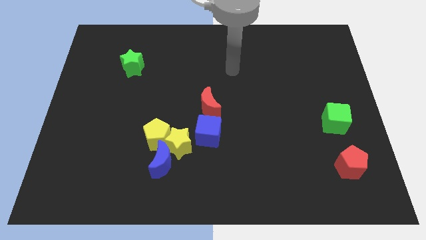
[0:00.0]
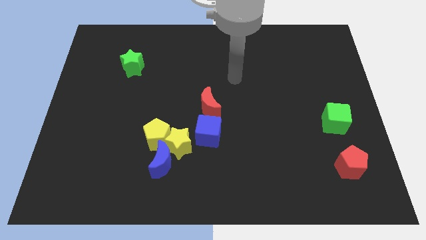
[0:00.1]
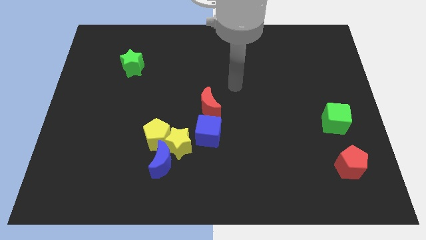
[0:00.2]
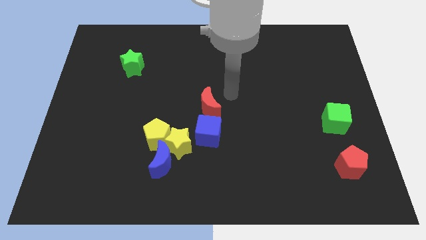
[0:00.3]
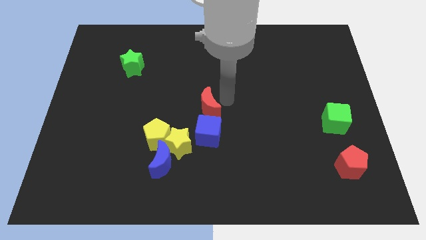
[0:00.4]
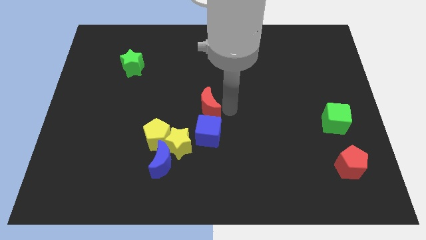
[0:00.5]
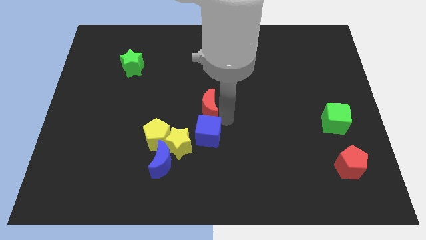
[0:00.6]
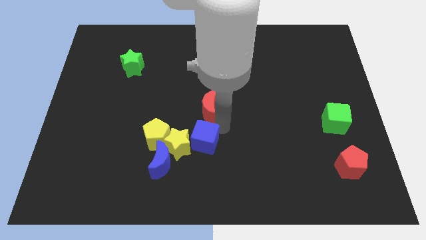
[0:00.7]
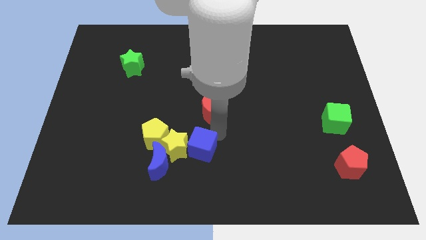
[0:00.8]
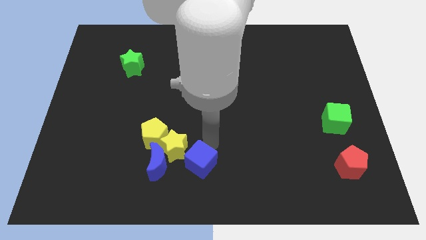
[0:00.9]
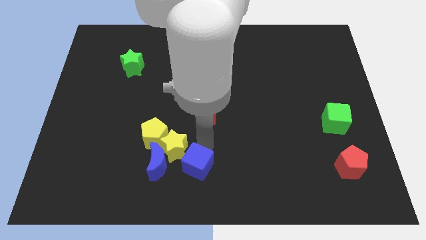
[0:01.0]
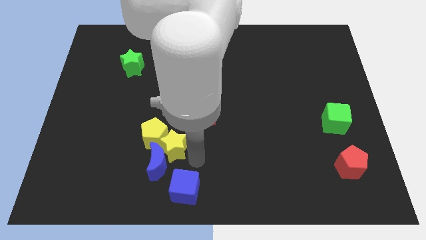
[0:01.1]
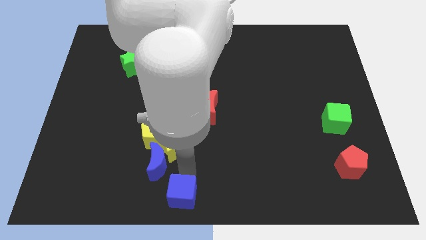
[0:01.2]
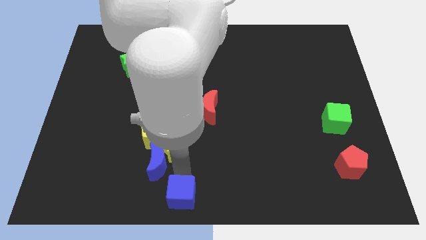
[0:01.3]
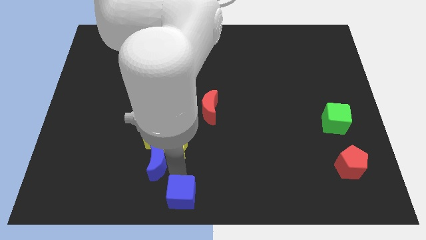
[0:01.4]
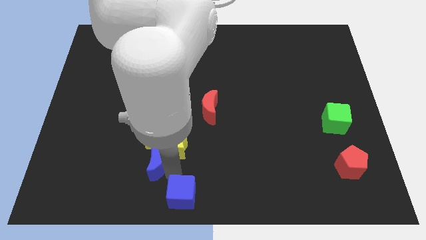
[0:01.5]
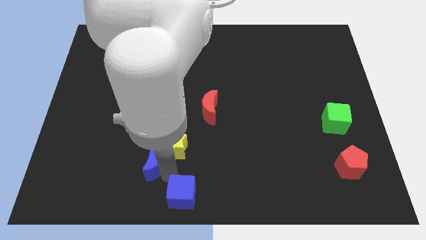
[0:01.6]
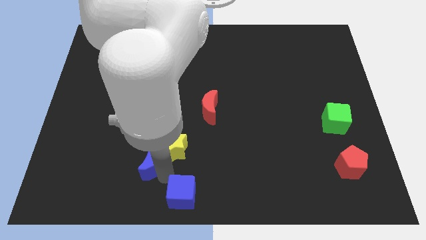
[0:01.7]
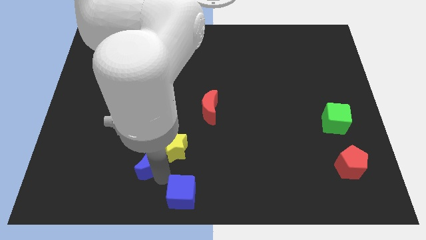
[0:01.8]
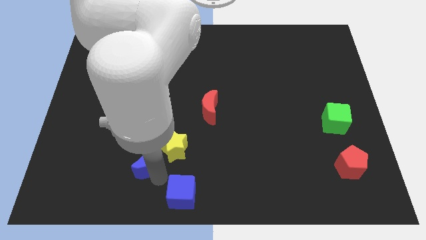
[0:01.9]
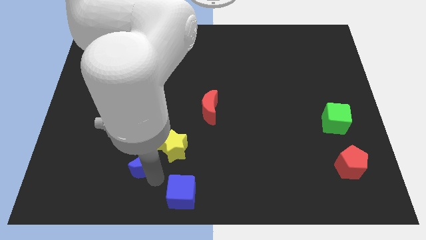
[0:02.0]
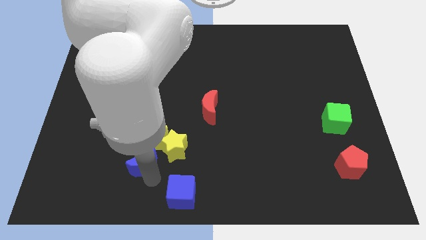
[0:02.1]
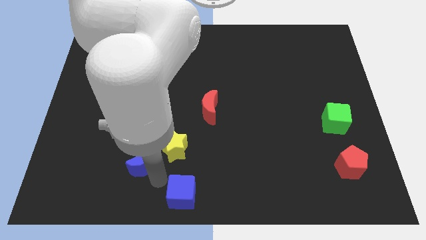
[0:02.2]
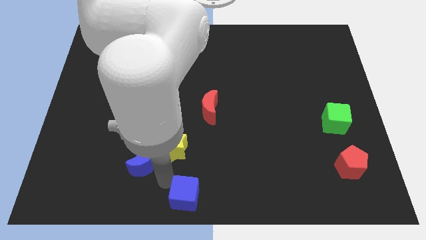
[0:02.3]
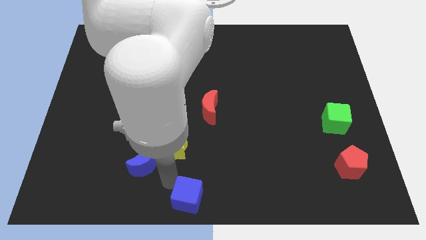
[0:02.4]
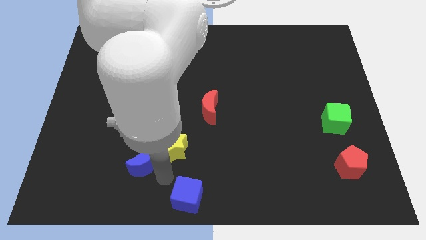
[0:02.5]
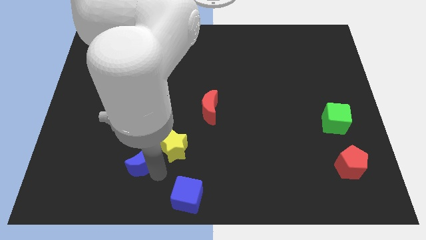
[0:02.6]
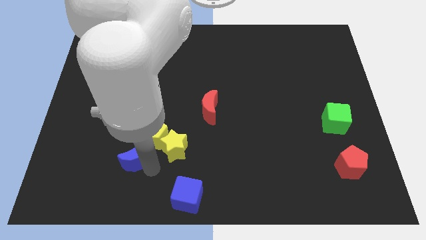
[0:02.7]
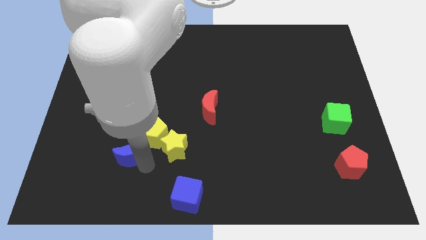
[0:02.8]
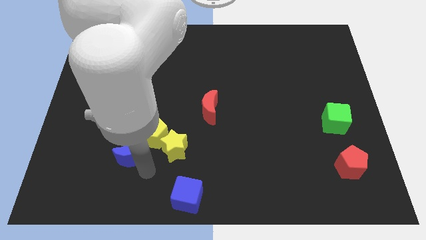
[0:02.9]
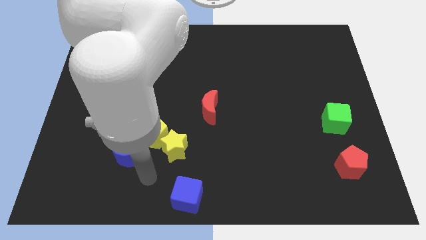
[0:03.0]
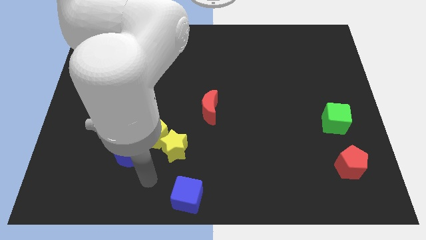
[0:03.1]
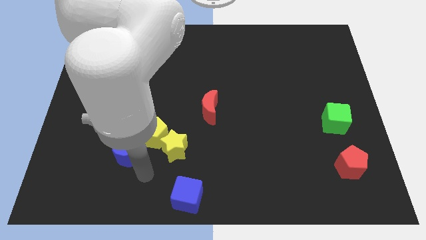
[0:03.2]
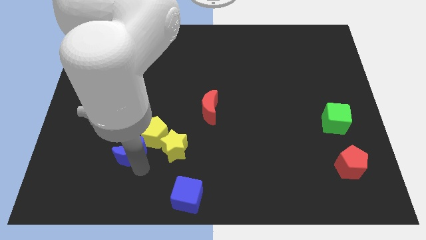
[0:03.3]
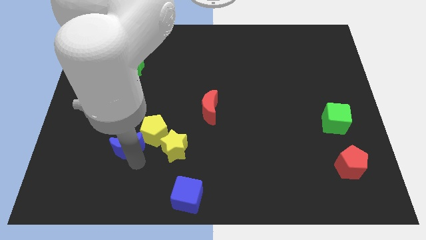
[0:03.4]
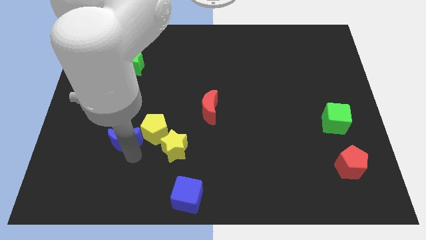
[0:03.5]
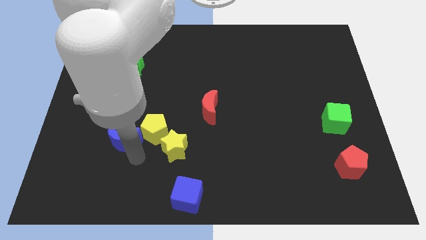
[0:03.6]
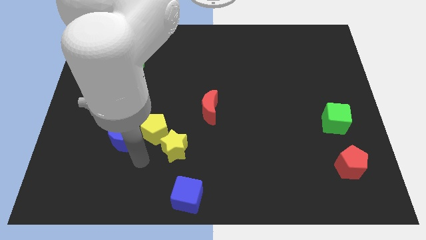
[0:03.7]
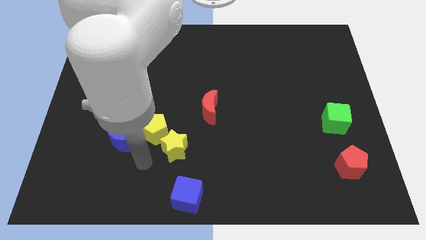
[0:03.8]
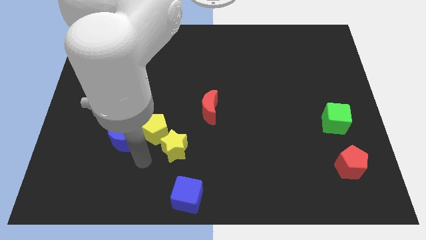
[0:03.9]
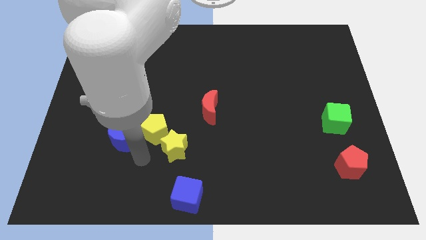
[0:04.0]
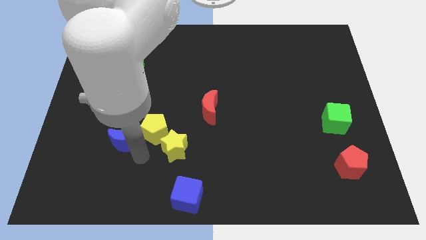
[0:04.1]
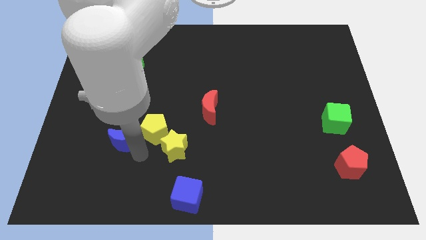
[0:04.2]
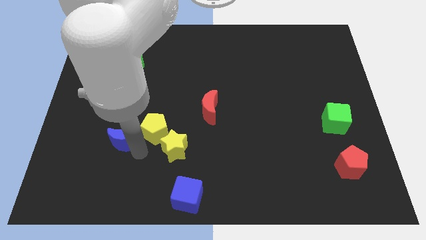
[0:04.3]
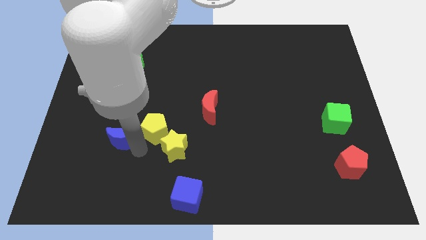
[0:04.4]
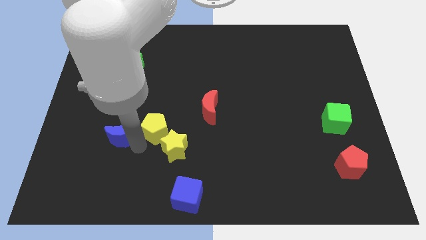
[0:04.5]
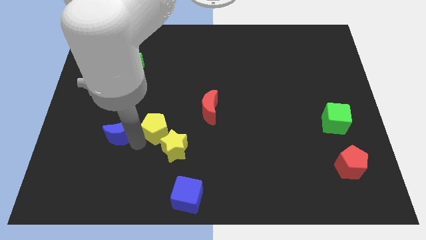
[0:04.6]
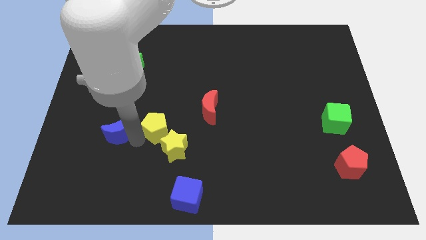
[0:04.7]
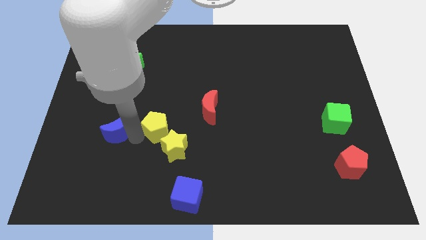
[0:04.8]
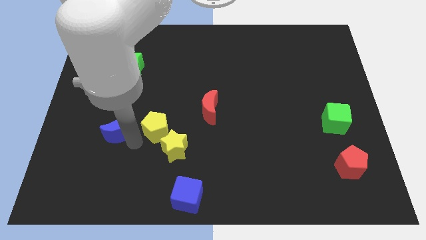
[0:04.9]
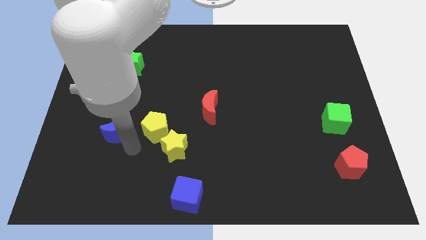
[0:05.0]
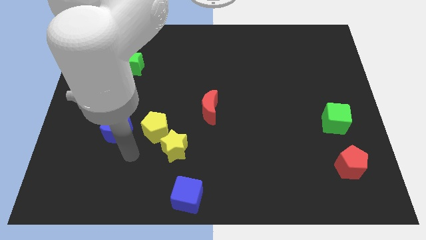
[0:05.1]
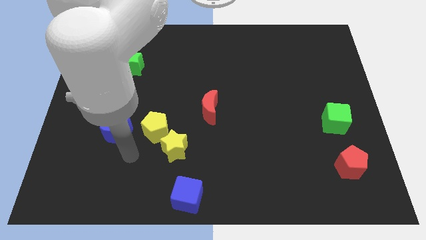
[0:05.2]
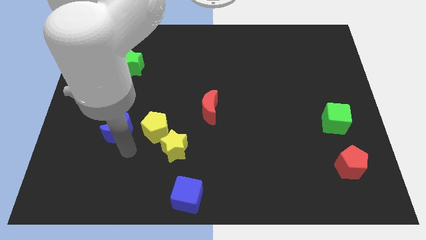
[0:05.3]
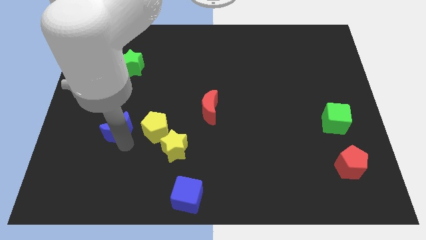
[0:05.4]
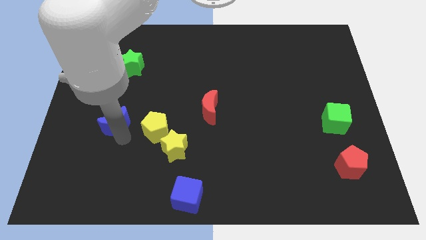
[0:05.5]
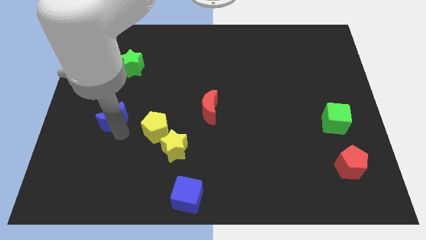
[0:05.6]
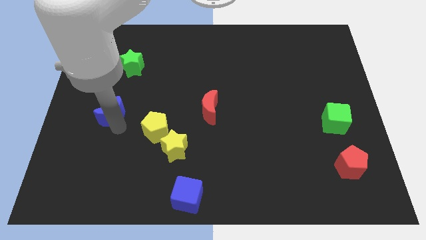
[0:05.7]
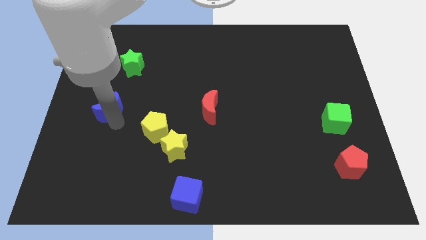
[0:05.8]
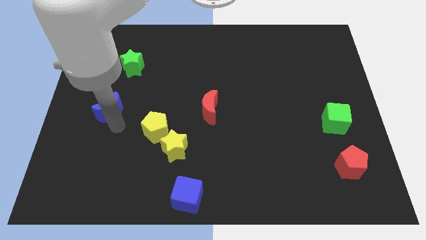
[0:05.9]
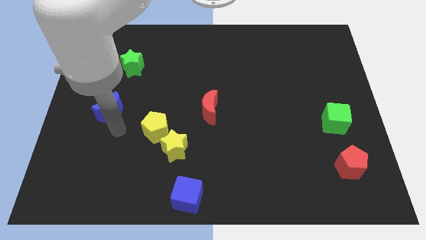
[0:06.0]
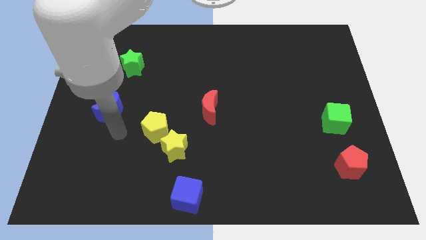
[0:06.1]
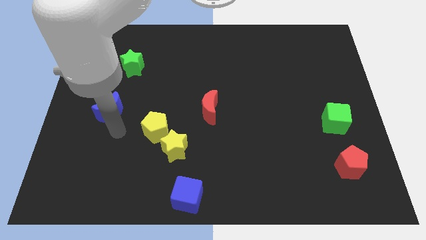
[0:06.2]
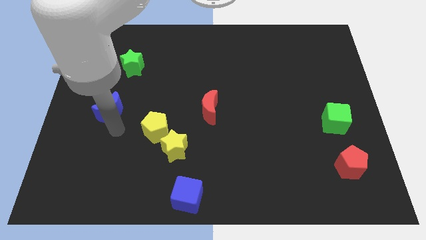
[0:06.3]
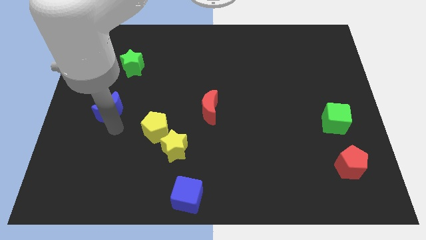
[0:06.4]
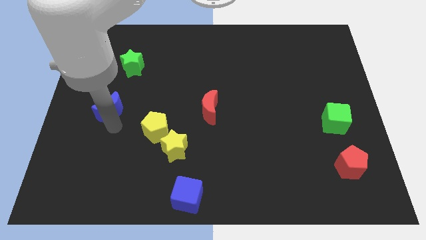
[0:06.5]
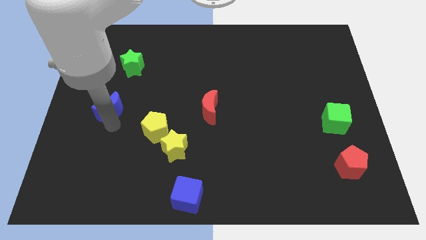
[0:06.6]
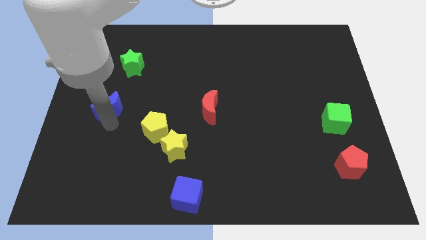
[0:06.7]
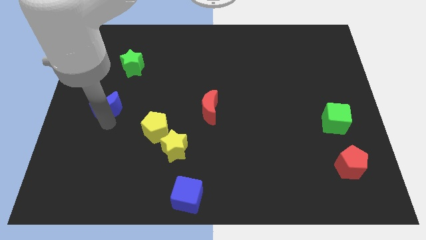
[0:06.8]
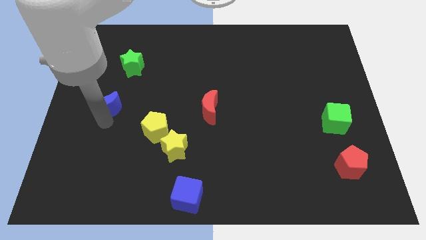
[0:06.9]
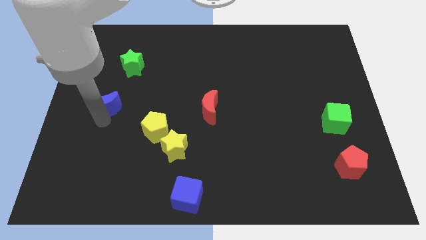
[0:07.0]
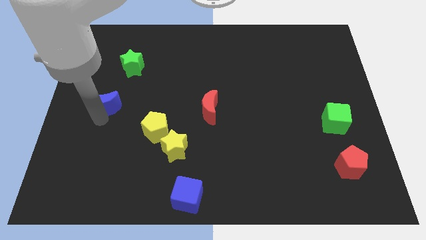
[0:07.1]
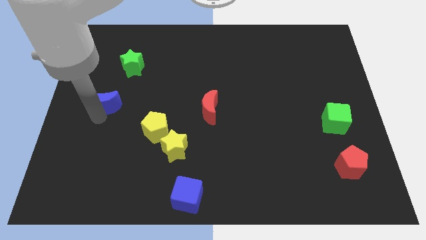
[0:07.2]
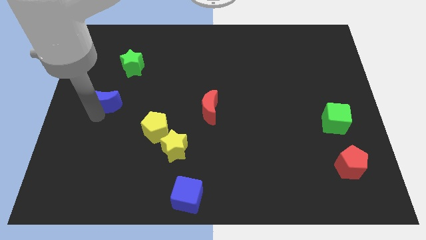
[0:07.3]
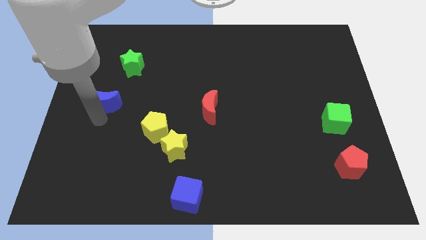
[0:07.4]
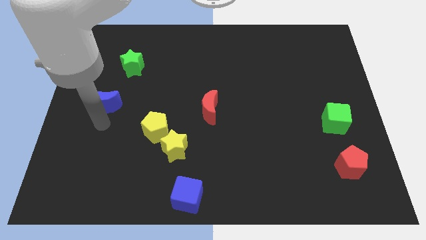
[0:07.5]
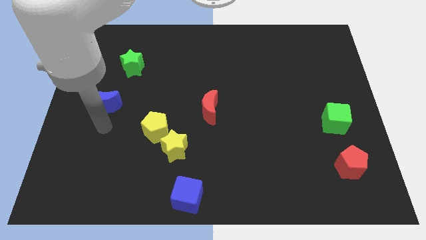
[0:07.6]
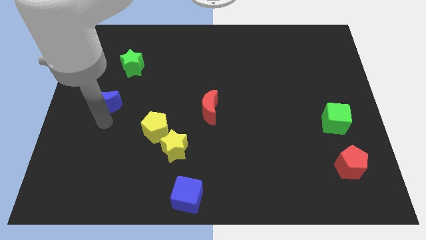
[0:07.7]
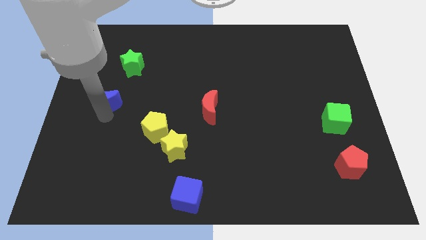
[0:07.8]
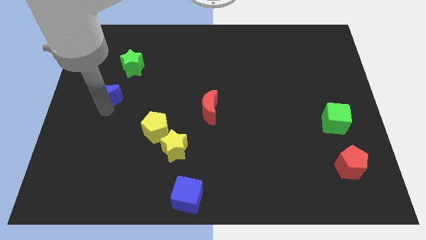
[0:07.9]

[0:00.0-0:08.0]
put the blue moon to the bottom left side of the green star

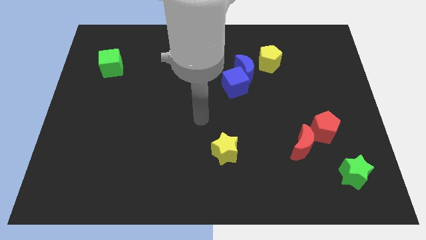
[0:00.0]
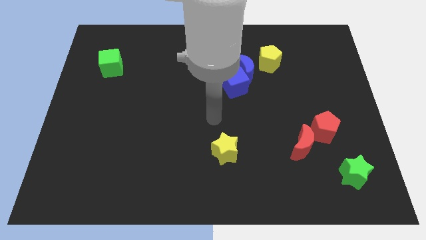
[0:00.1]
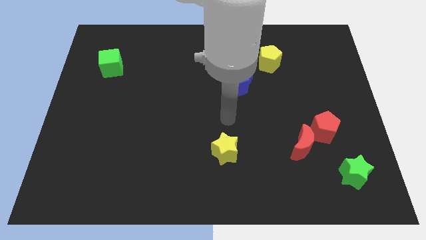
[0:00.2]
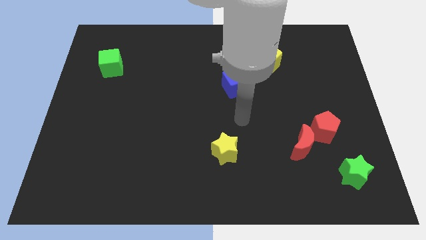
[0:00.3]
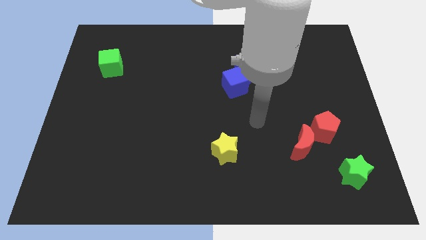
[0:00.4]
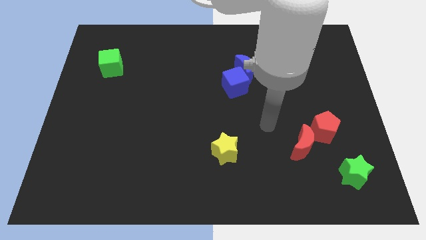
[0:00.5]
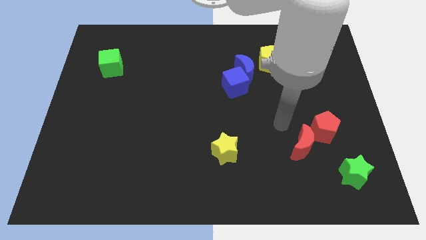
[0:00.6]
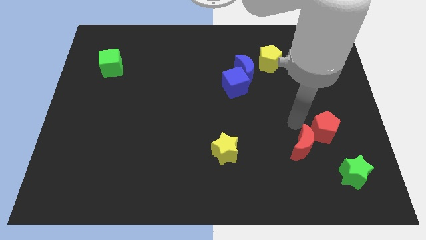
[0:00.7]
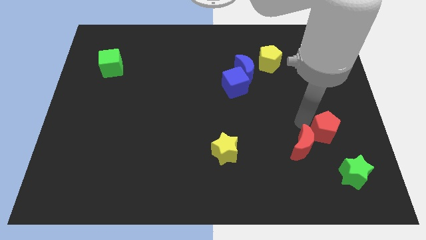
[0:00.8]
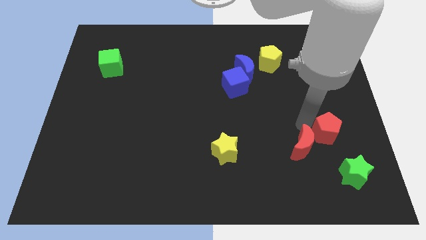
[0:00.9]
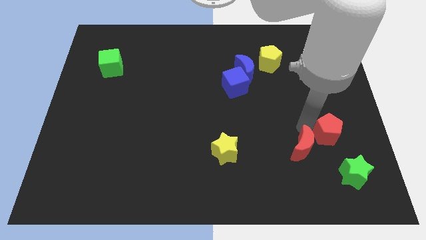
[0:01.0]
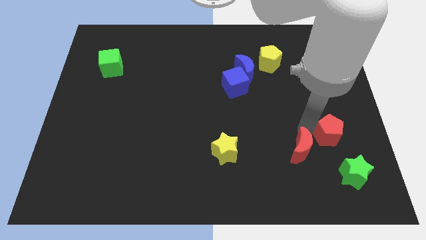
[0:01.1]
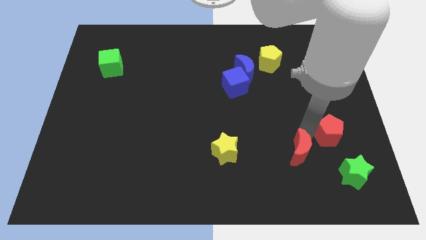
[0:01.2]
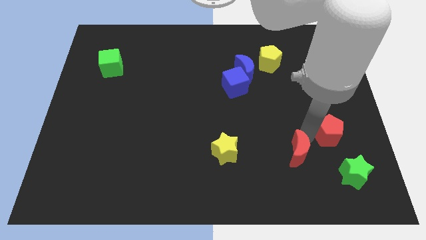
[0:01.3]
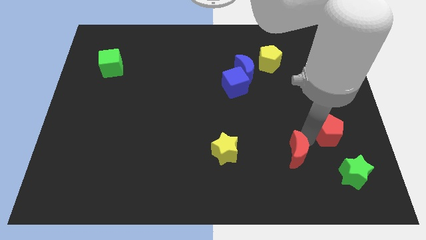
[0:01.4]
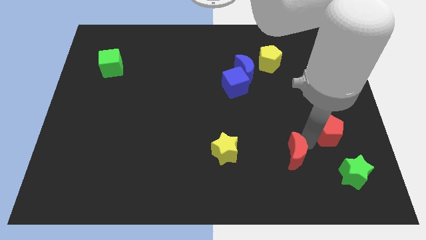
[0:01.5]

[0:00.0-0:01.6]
slide the red moon just left of the green star
